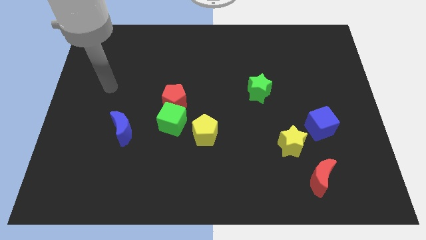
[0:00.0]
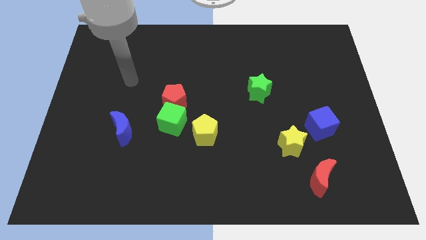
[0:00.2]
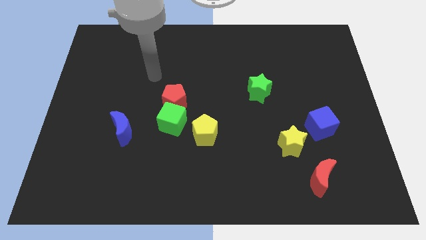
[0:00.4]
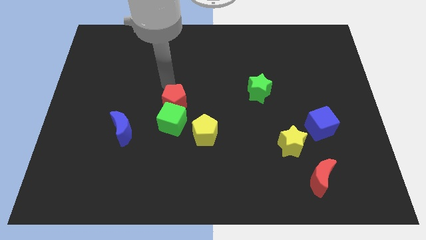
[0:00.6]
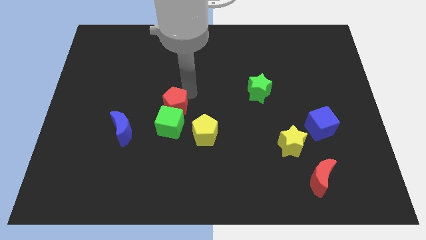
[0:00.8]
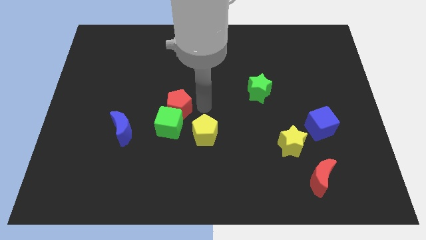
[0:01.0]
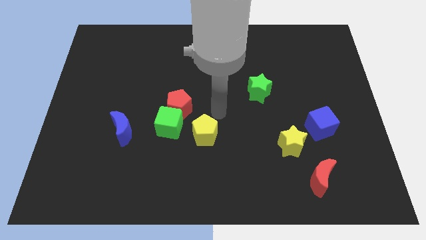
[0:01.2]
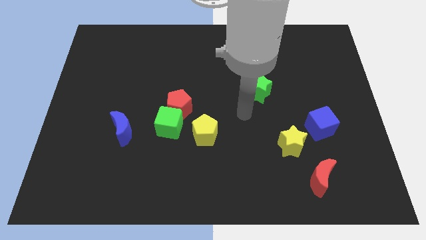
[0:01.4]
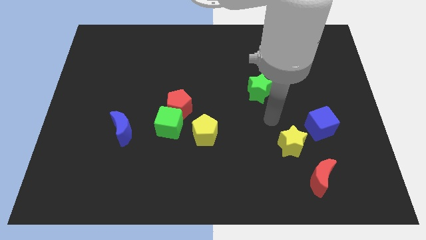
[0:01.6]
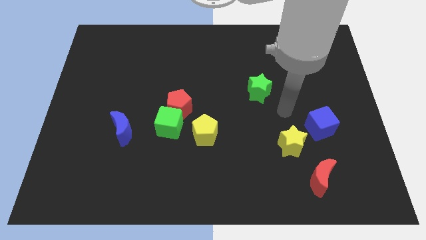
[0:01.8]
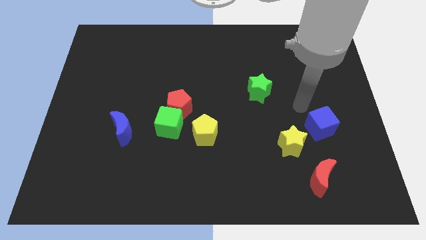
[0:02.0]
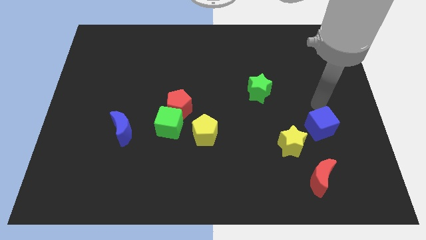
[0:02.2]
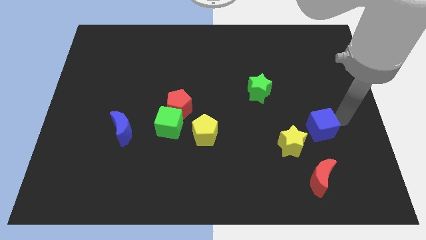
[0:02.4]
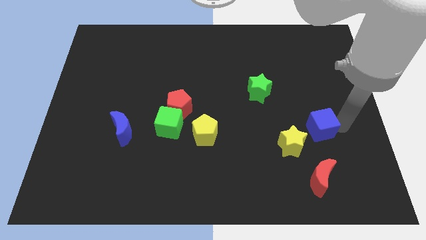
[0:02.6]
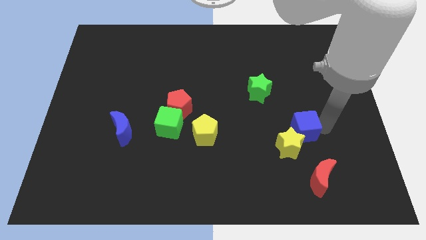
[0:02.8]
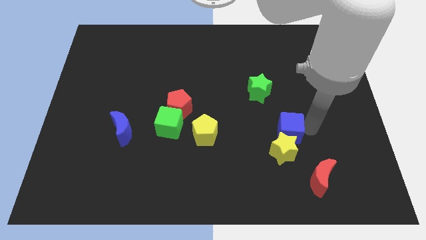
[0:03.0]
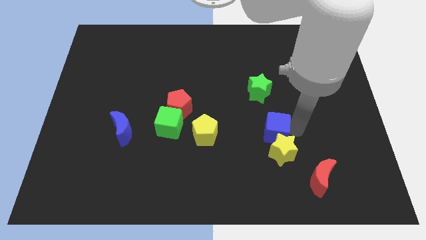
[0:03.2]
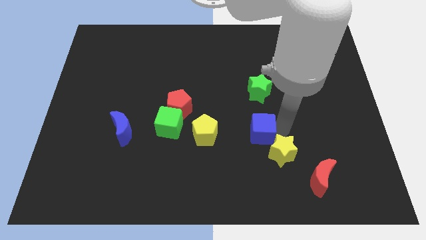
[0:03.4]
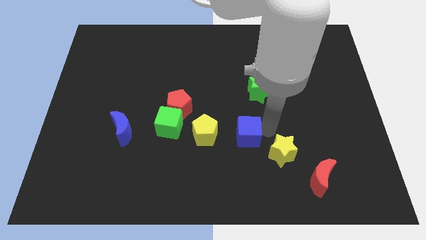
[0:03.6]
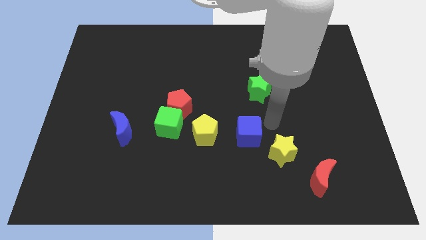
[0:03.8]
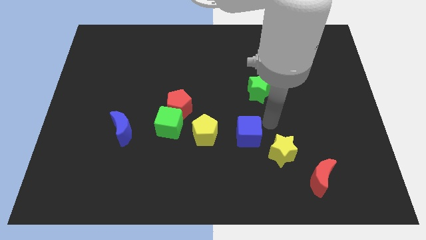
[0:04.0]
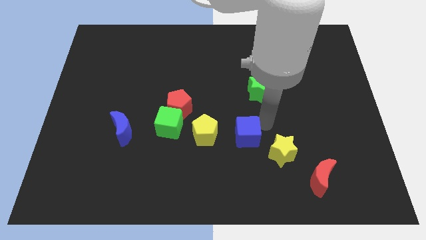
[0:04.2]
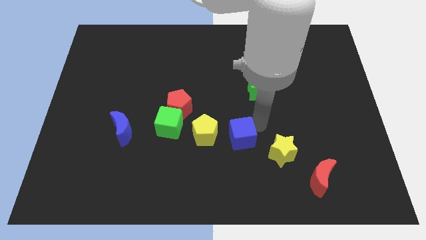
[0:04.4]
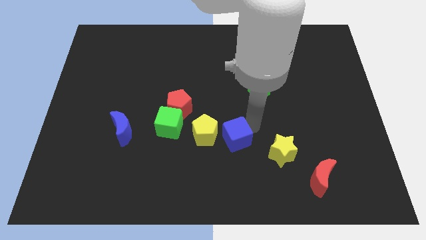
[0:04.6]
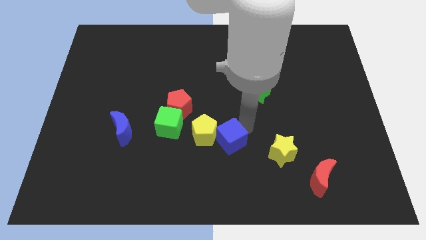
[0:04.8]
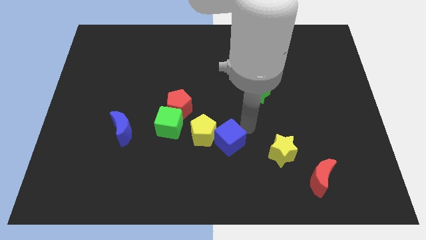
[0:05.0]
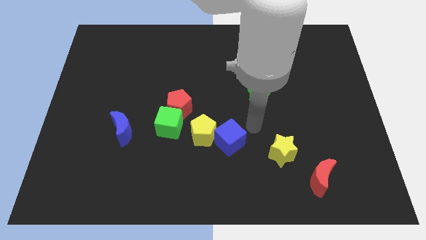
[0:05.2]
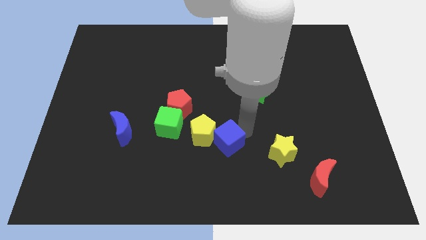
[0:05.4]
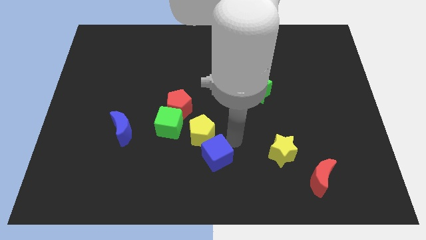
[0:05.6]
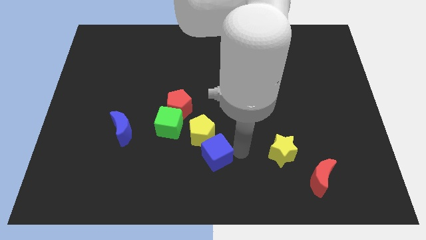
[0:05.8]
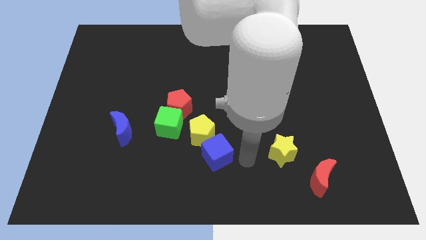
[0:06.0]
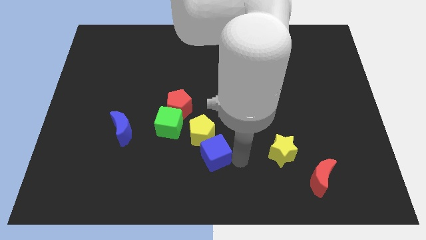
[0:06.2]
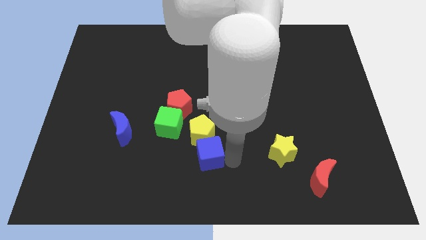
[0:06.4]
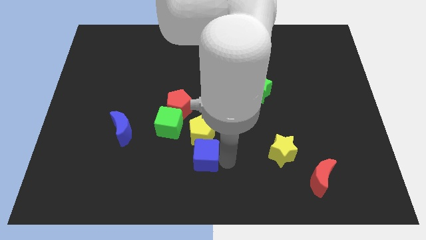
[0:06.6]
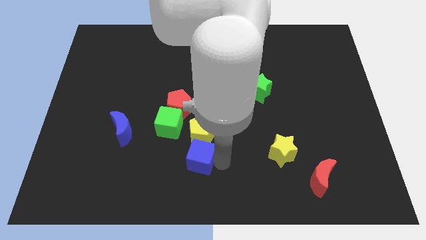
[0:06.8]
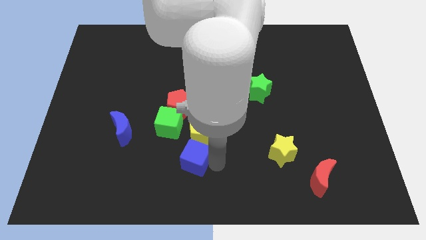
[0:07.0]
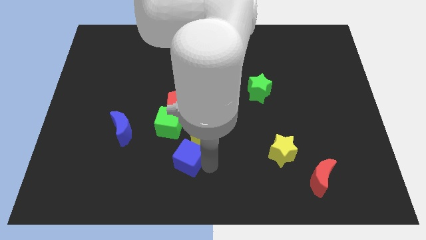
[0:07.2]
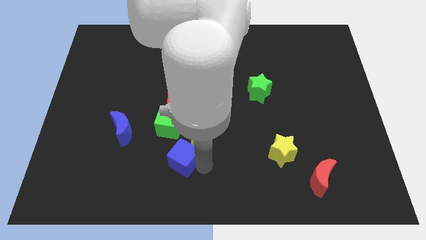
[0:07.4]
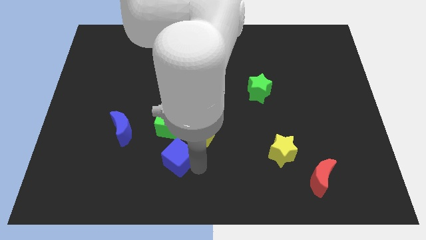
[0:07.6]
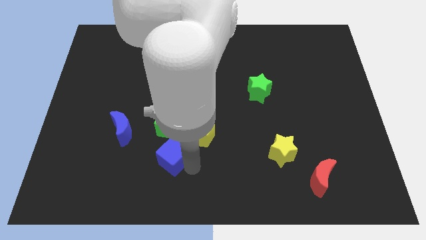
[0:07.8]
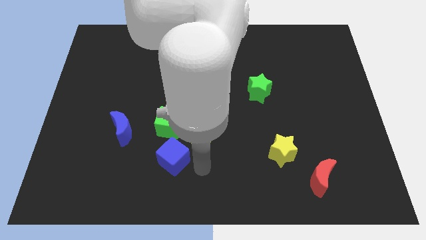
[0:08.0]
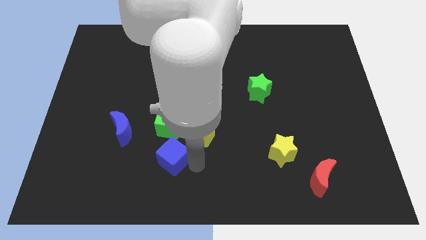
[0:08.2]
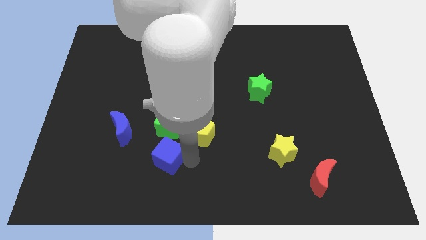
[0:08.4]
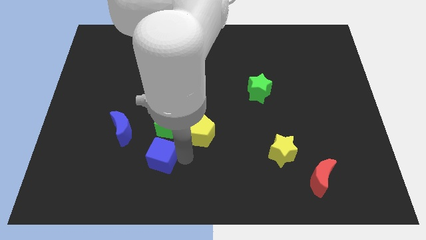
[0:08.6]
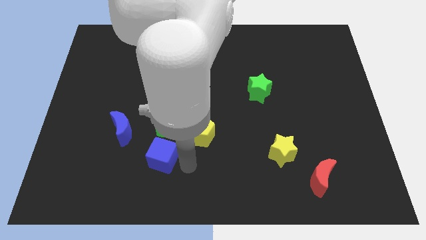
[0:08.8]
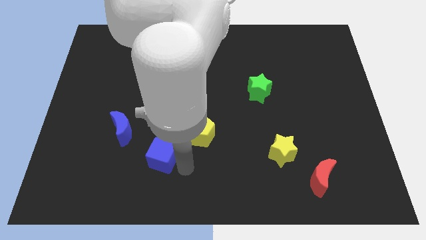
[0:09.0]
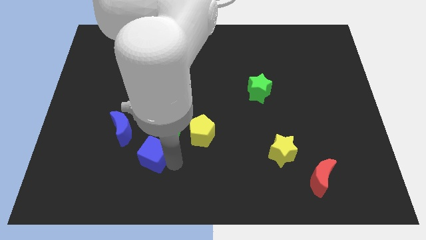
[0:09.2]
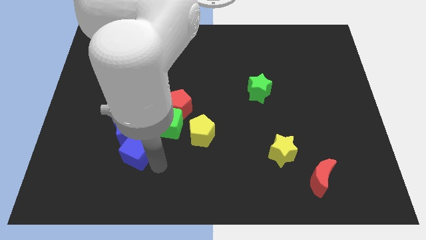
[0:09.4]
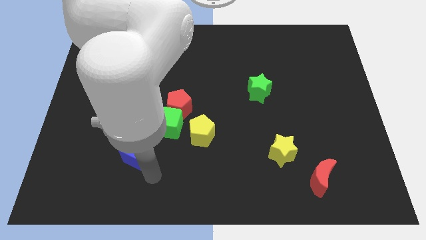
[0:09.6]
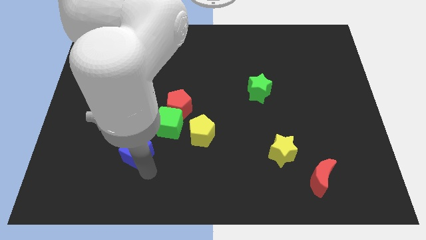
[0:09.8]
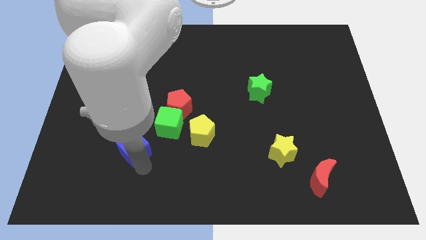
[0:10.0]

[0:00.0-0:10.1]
slide the blue cube to the blue moon

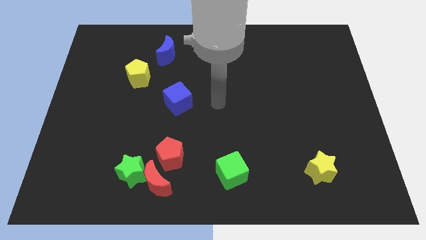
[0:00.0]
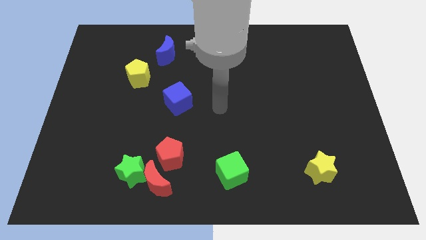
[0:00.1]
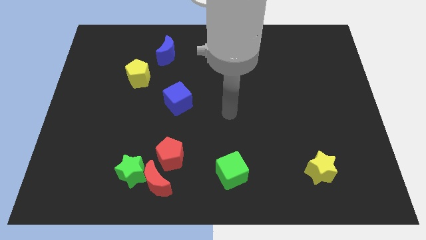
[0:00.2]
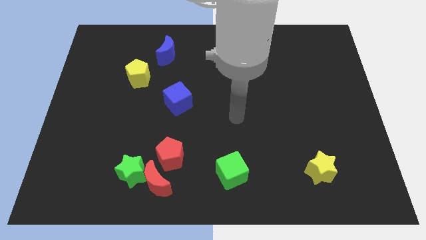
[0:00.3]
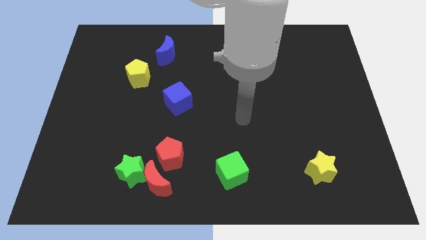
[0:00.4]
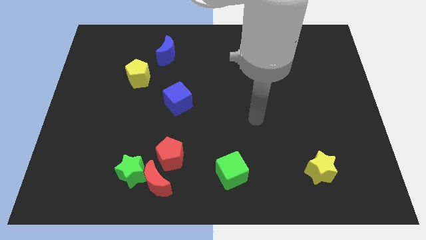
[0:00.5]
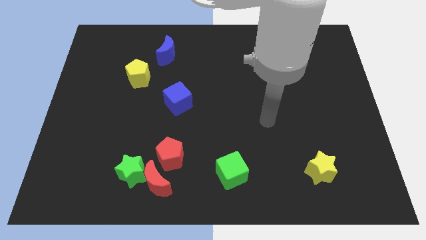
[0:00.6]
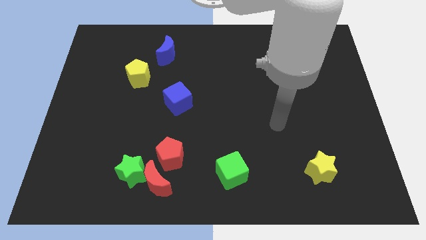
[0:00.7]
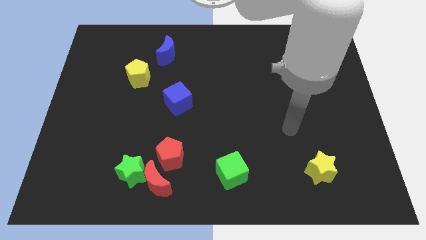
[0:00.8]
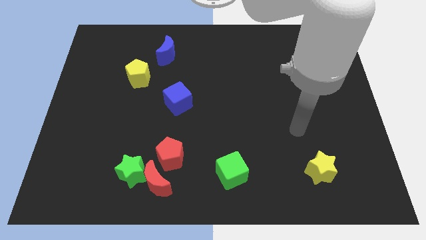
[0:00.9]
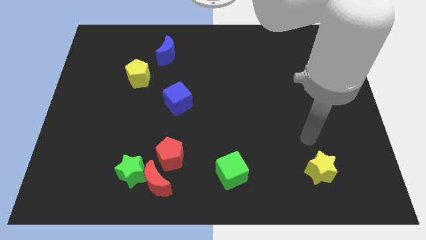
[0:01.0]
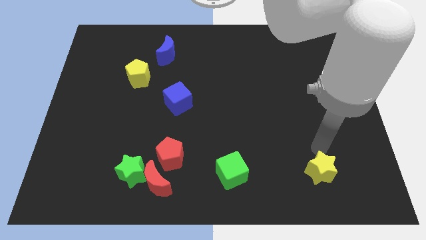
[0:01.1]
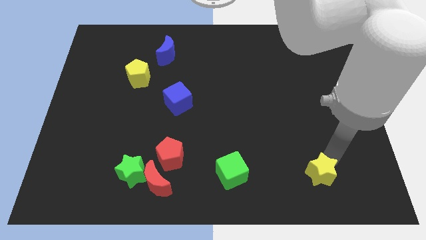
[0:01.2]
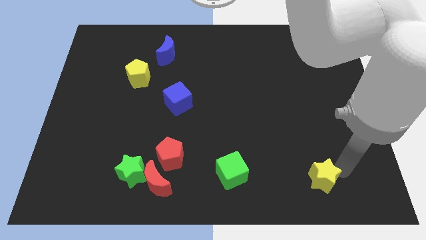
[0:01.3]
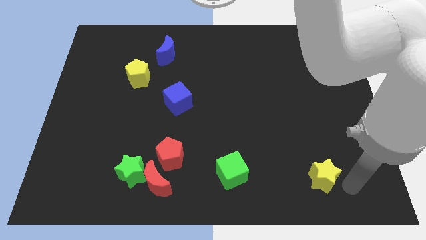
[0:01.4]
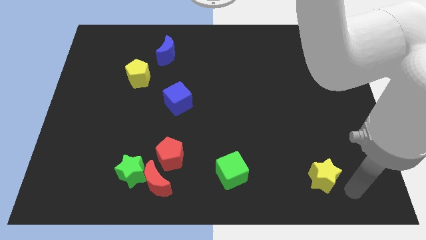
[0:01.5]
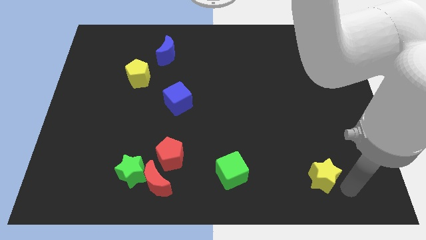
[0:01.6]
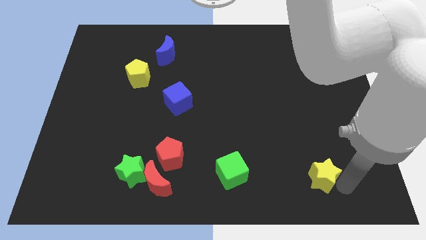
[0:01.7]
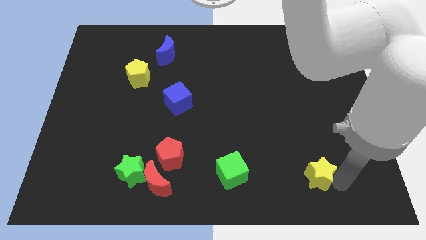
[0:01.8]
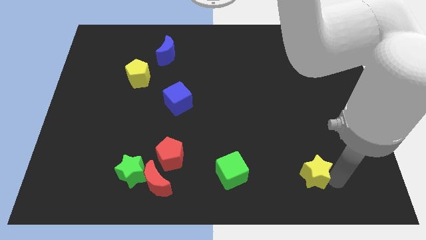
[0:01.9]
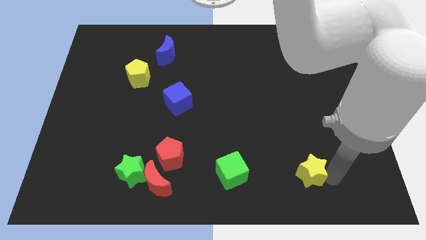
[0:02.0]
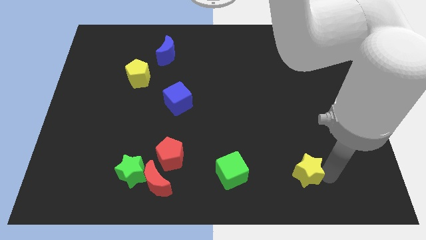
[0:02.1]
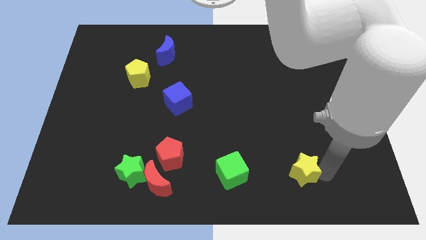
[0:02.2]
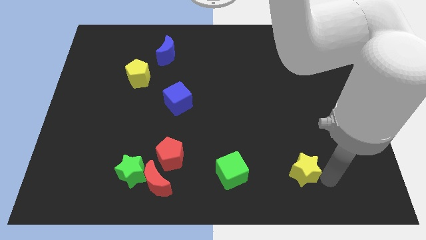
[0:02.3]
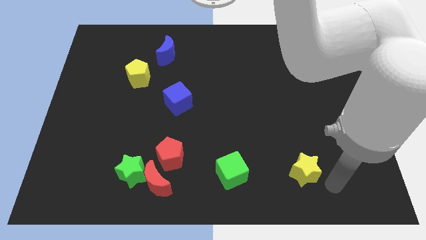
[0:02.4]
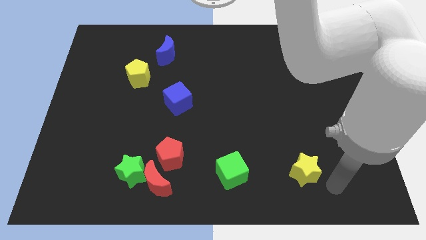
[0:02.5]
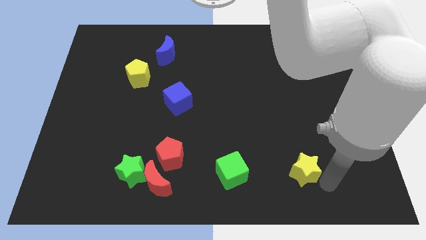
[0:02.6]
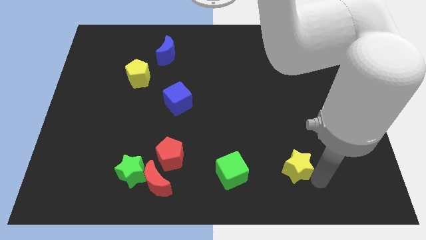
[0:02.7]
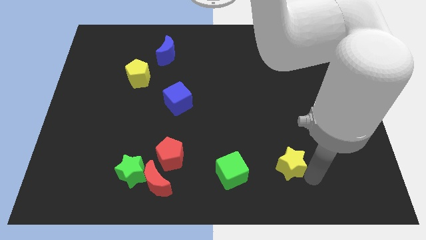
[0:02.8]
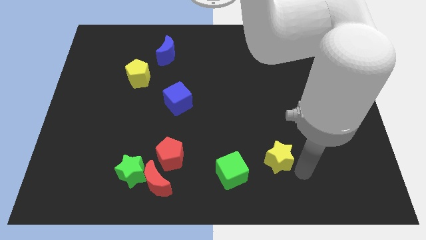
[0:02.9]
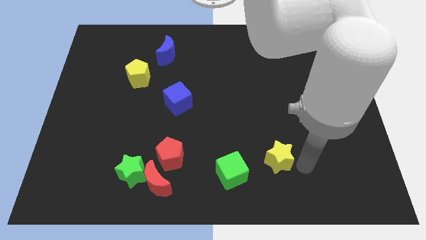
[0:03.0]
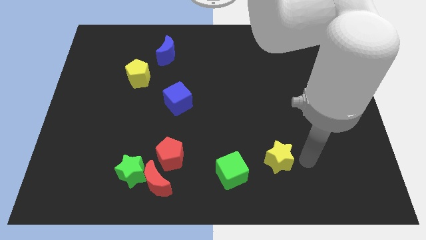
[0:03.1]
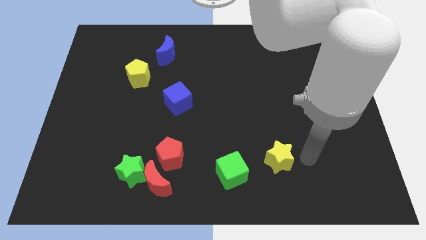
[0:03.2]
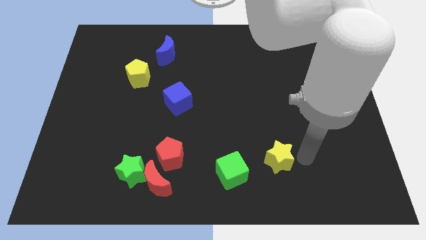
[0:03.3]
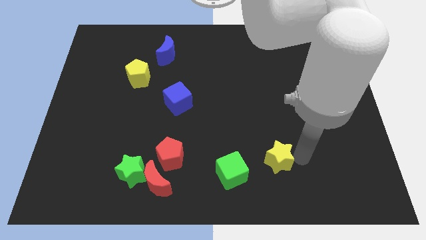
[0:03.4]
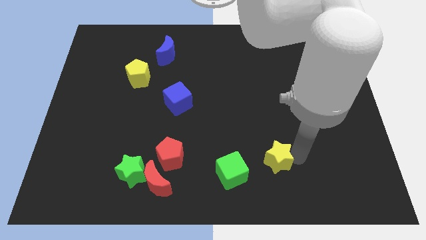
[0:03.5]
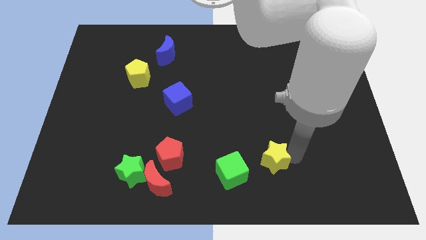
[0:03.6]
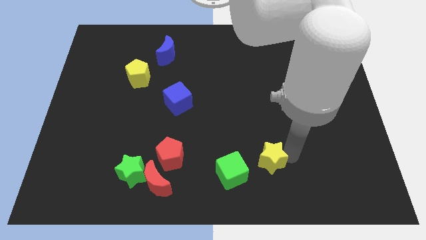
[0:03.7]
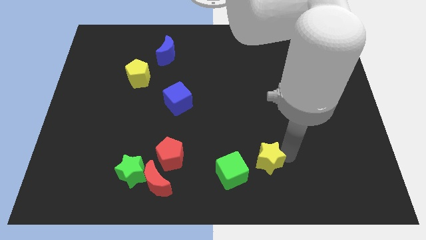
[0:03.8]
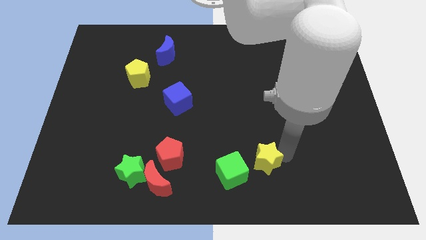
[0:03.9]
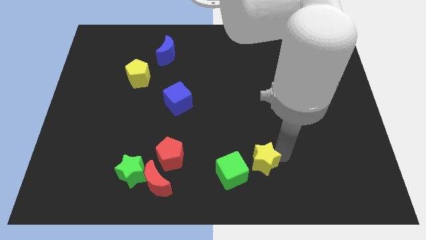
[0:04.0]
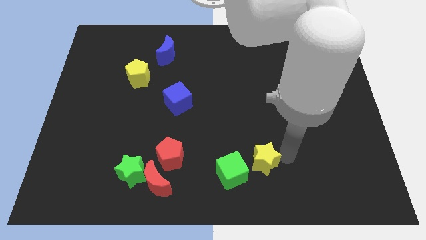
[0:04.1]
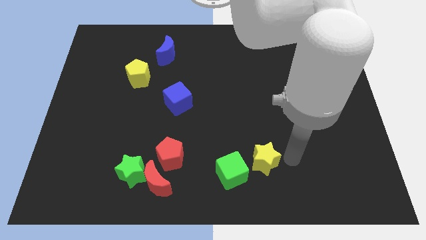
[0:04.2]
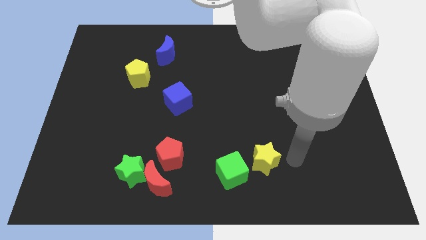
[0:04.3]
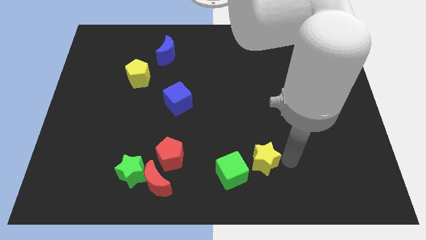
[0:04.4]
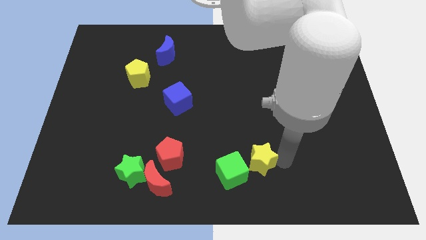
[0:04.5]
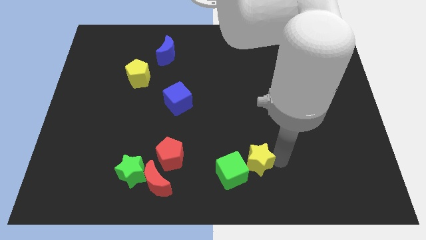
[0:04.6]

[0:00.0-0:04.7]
push the yellow star next to the green cube
